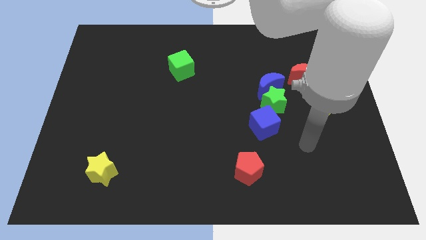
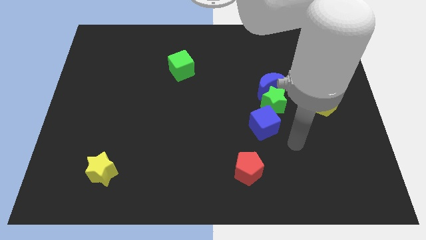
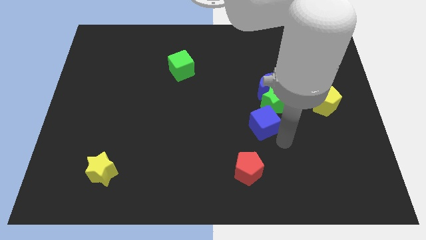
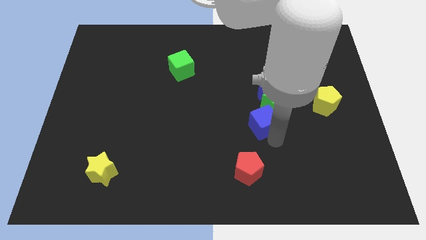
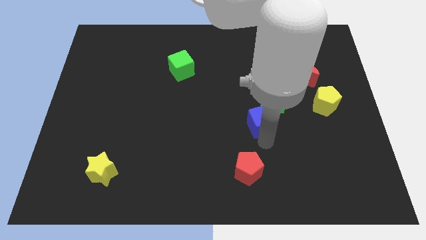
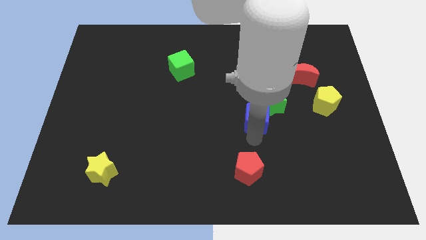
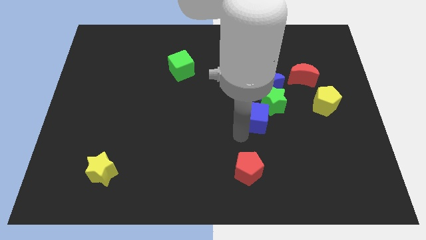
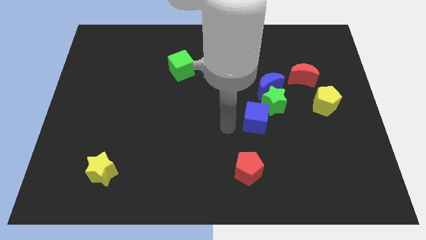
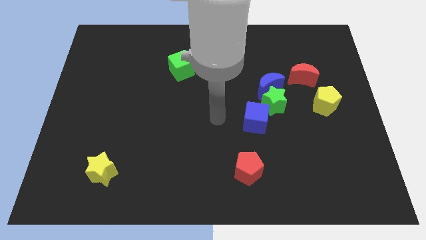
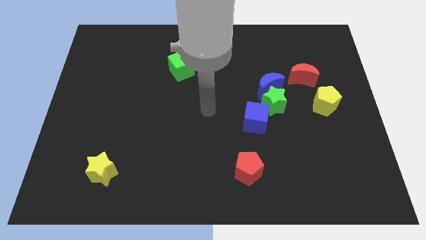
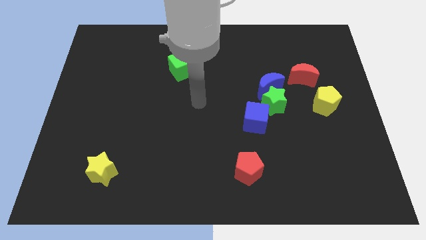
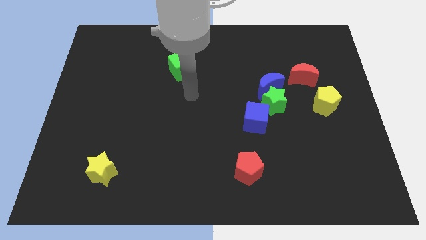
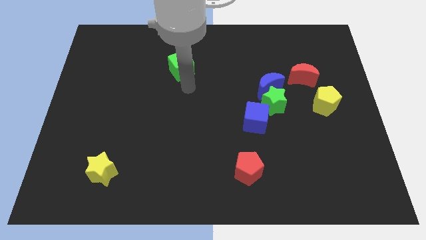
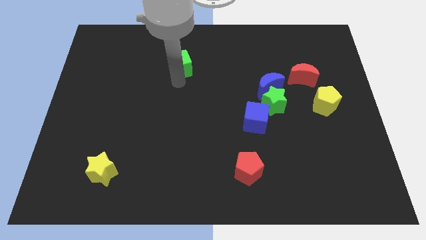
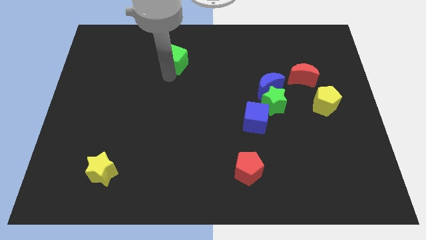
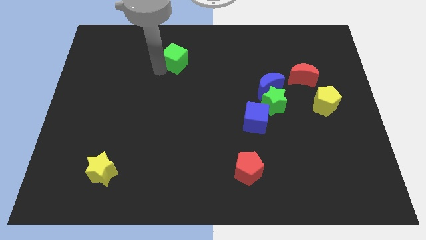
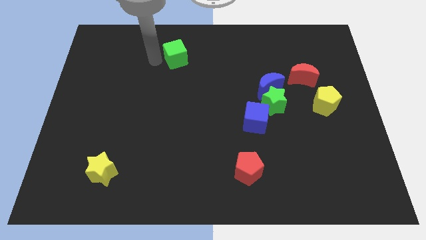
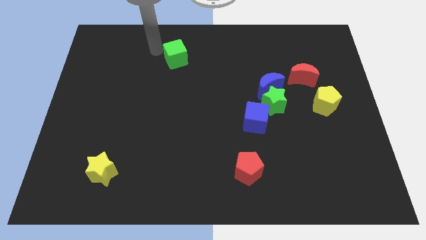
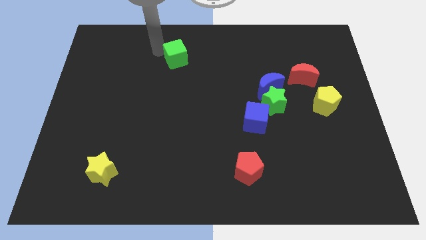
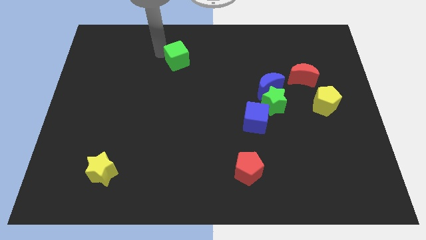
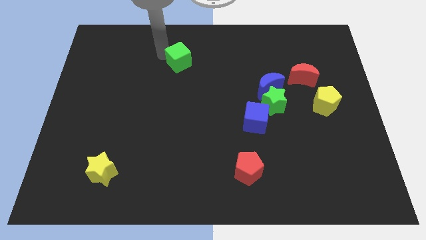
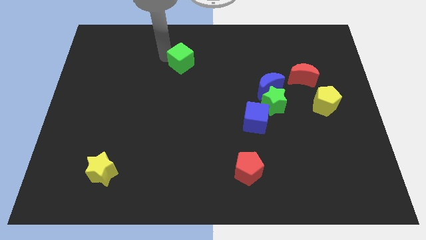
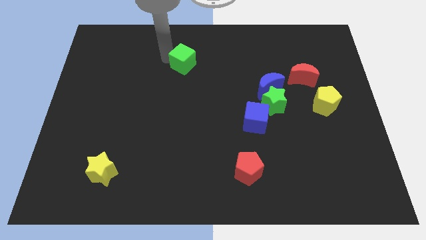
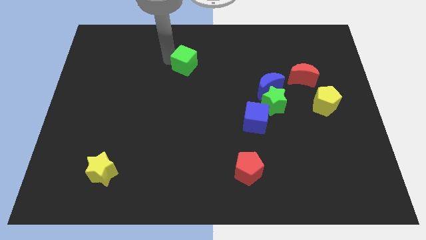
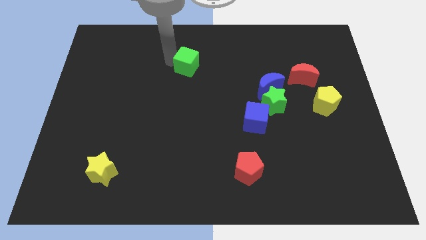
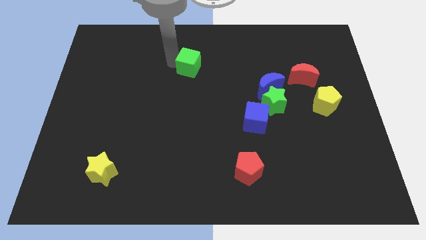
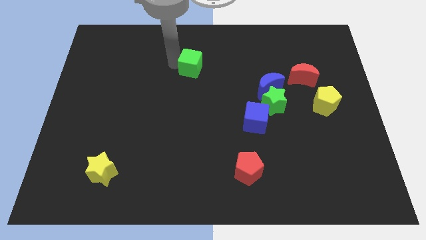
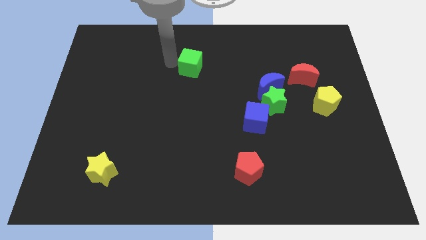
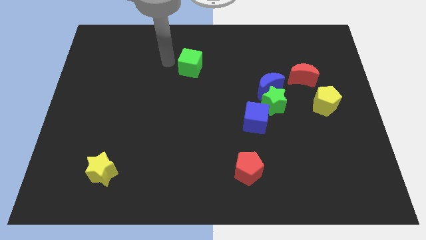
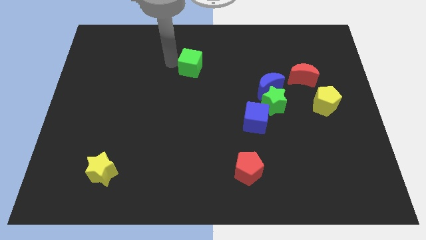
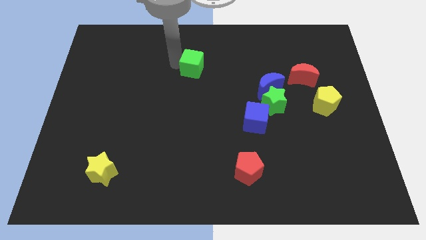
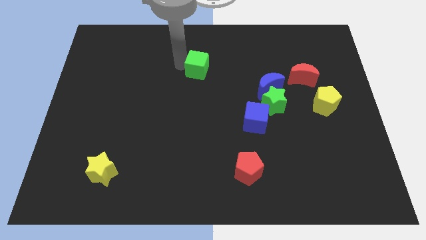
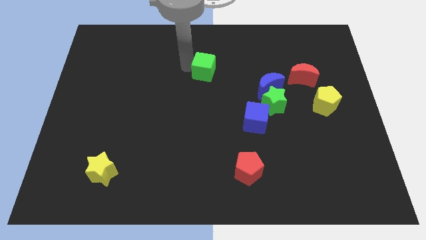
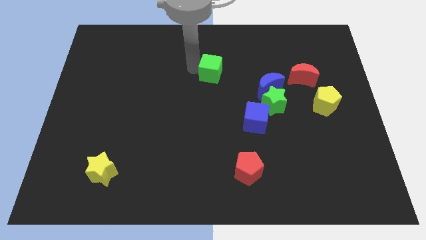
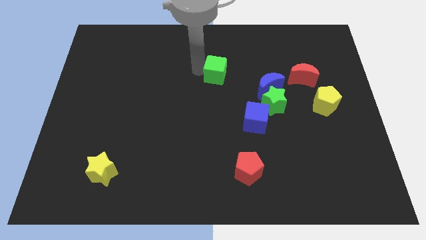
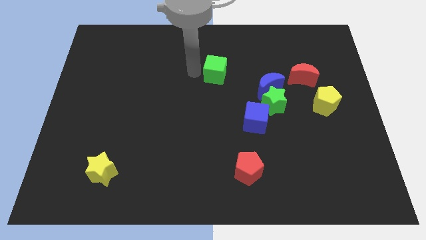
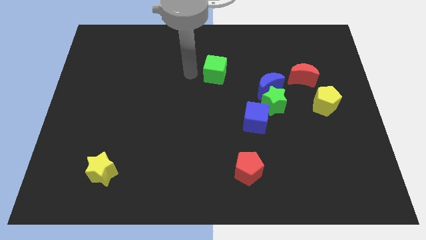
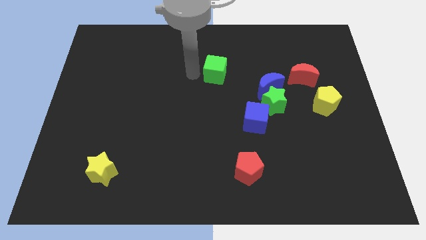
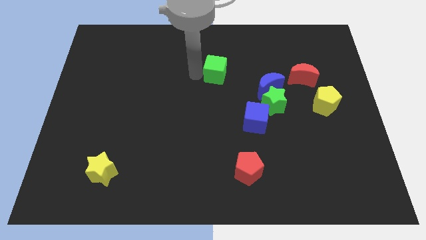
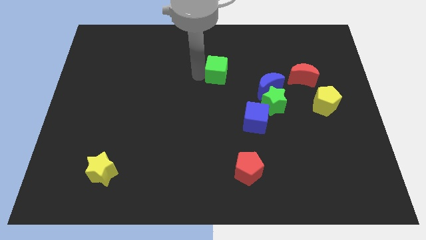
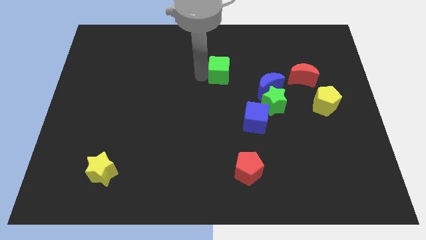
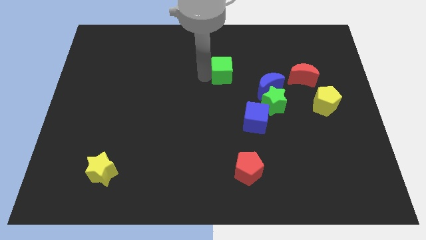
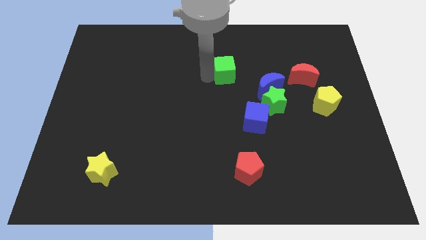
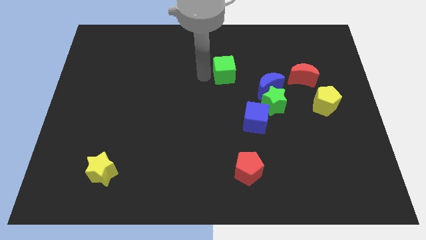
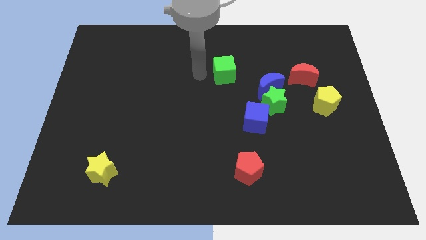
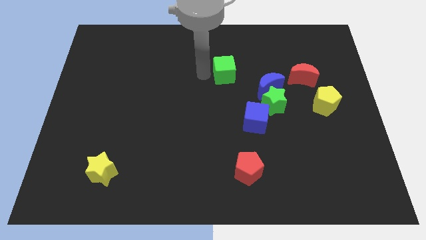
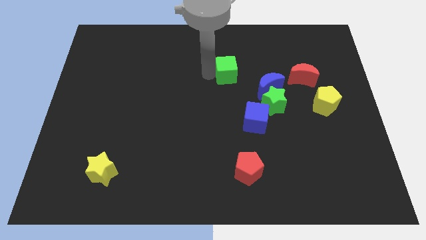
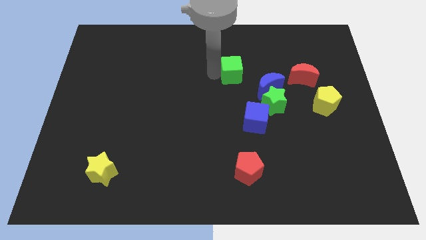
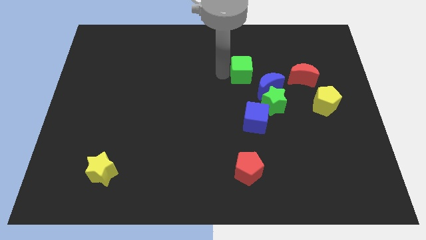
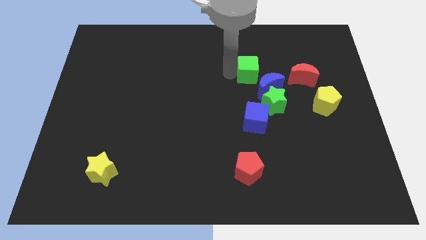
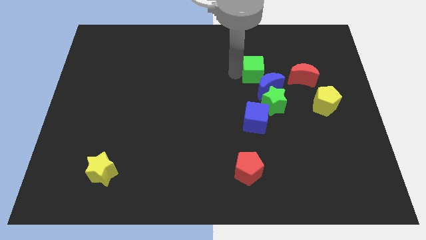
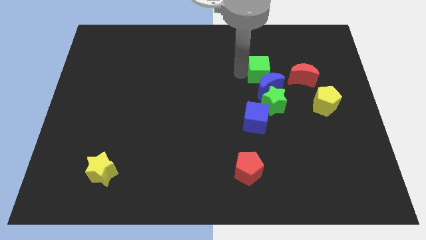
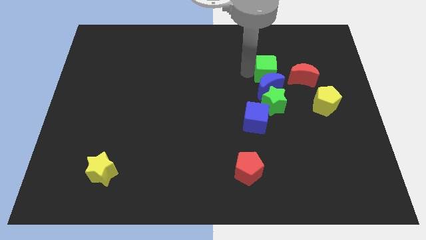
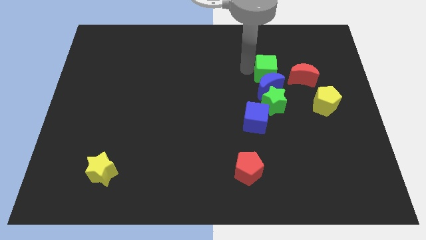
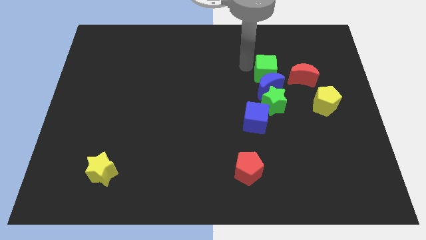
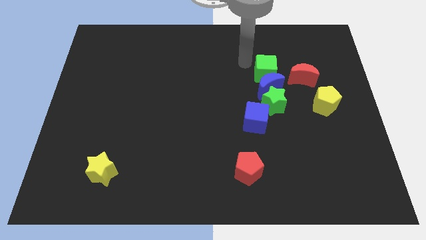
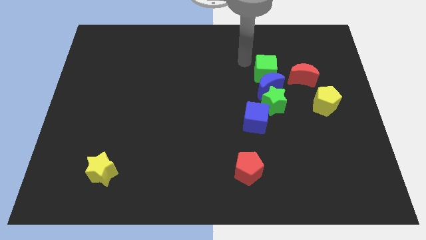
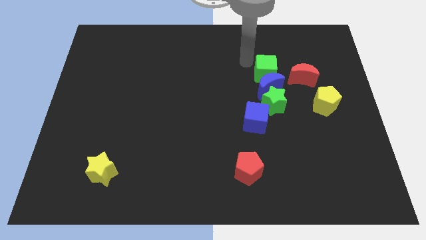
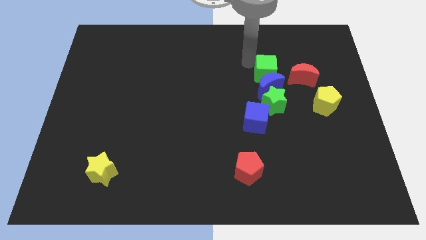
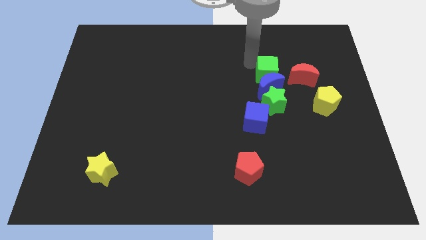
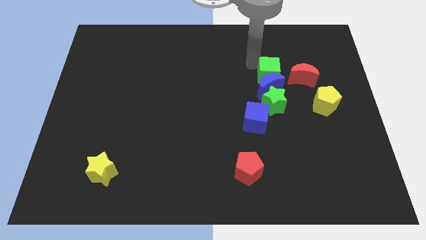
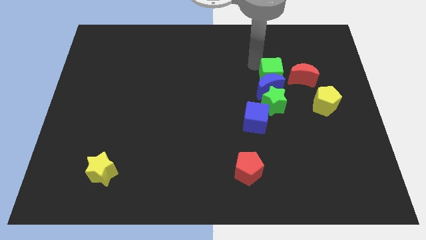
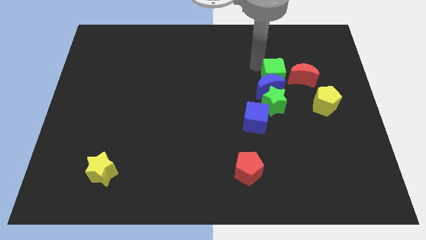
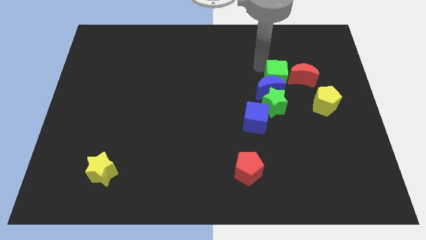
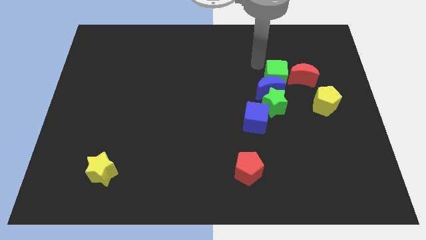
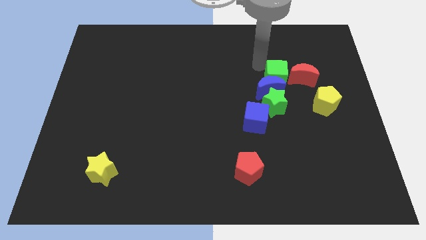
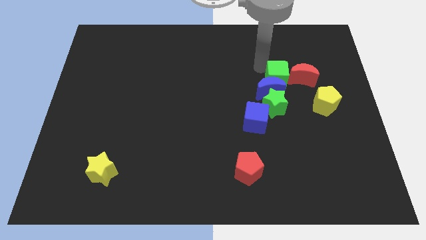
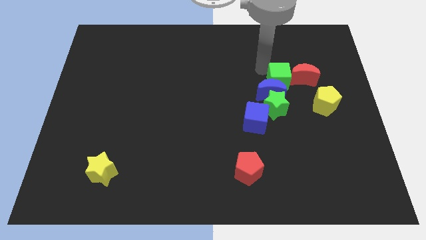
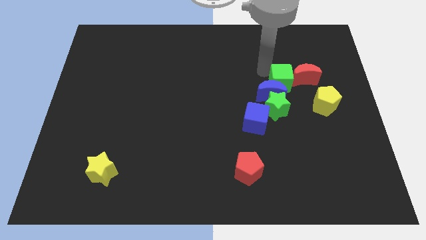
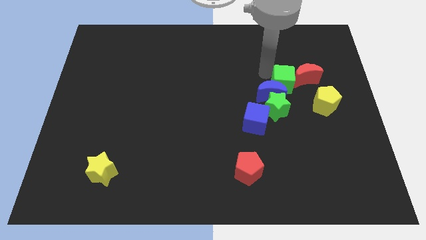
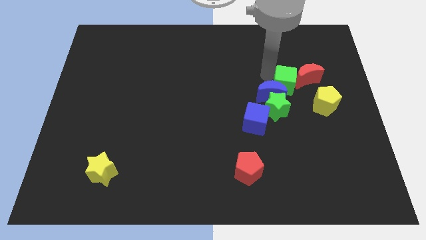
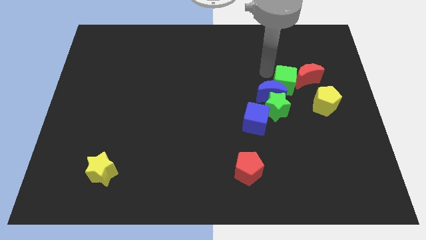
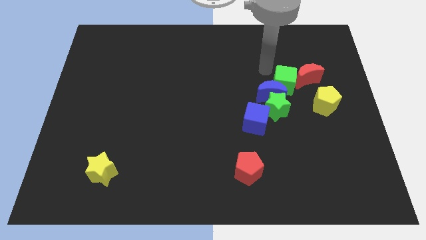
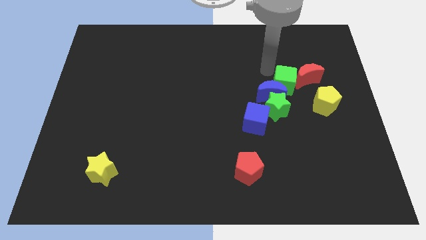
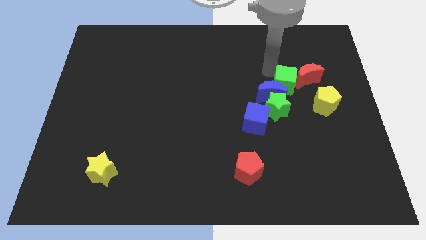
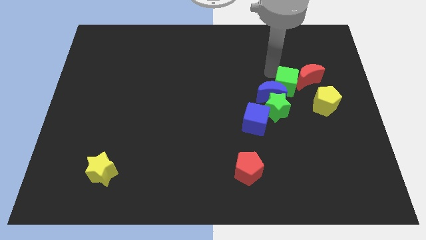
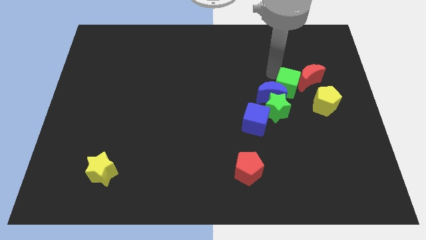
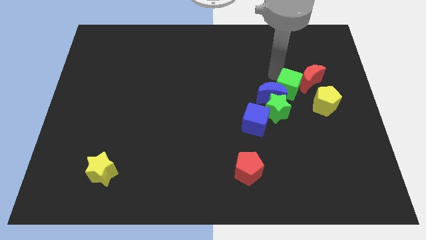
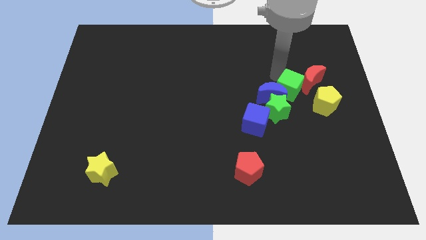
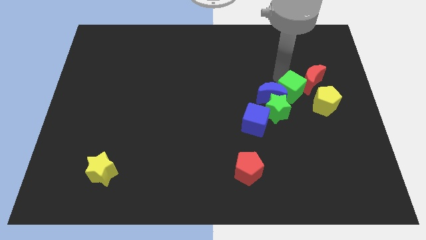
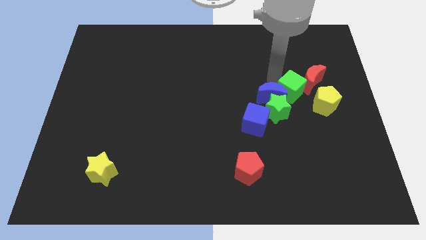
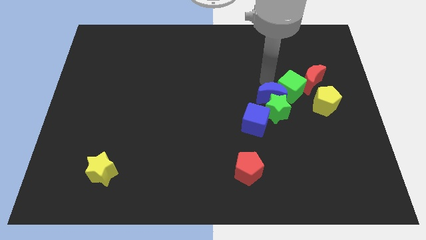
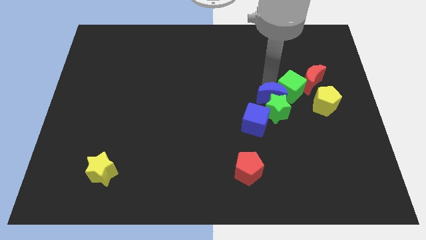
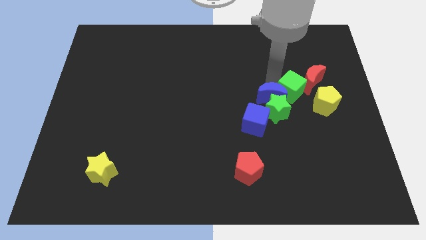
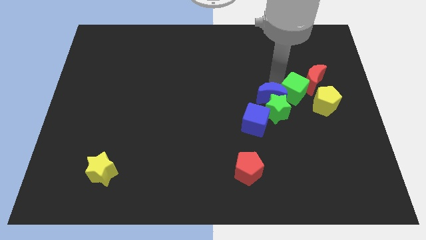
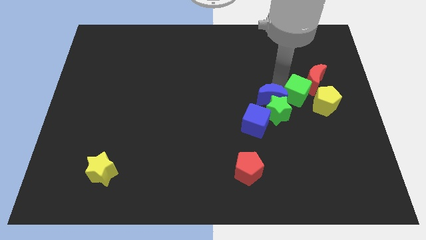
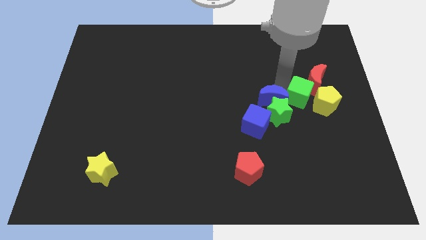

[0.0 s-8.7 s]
move the green cube towards the yellow pentagon
